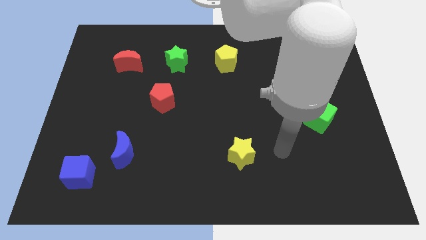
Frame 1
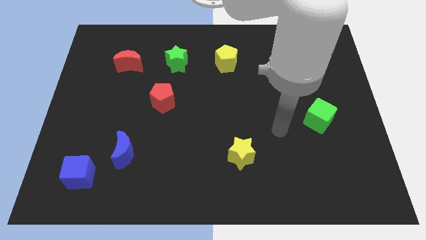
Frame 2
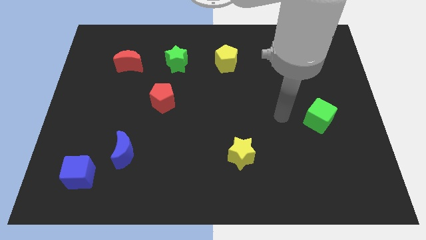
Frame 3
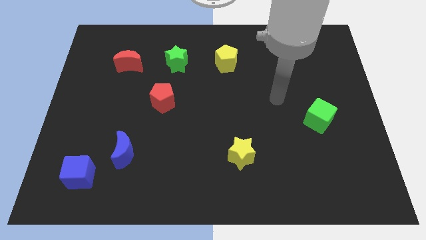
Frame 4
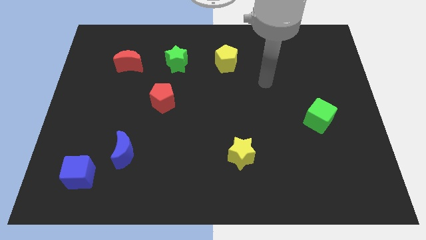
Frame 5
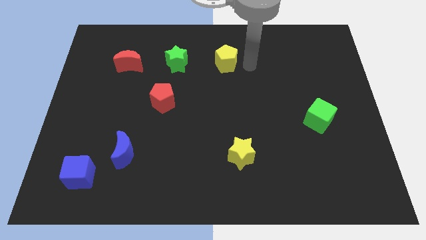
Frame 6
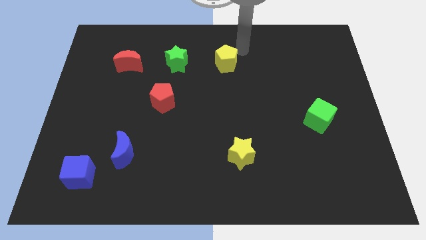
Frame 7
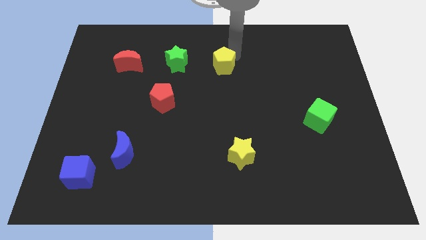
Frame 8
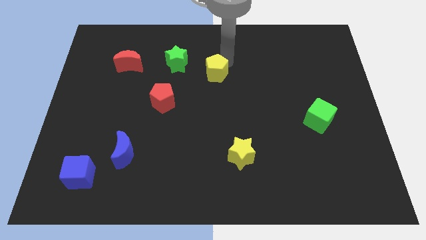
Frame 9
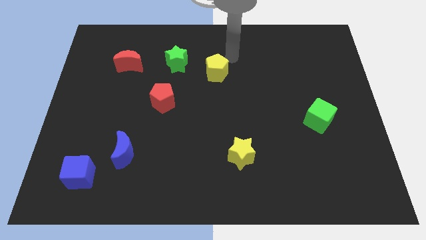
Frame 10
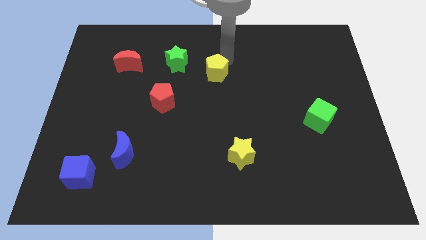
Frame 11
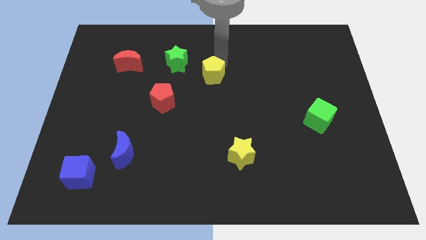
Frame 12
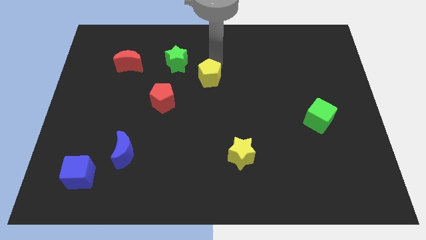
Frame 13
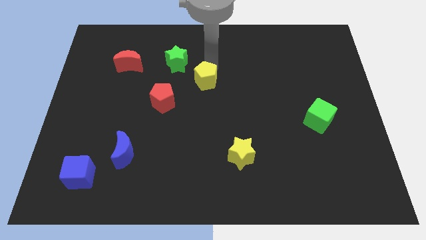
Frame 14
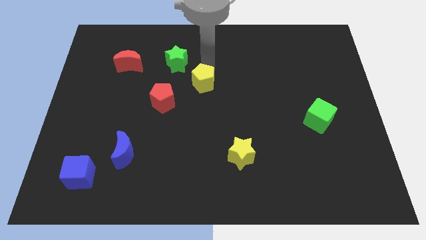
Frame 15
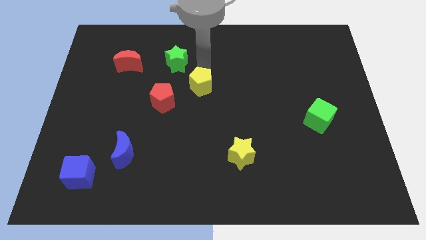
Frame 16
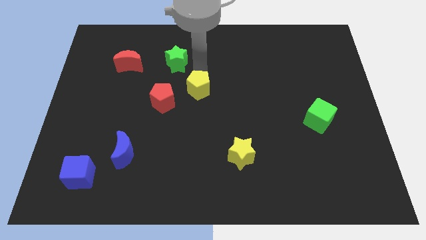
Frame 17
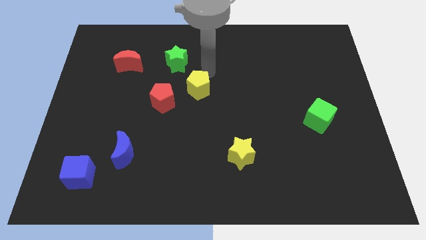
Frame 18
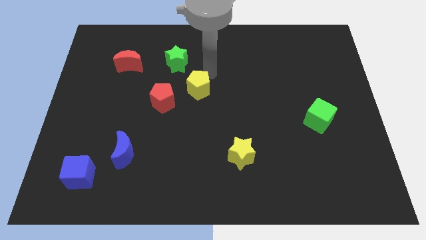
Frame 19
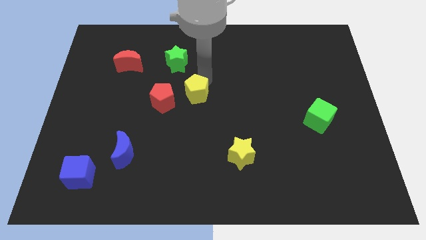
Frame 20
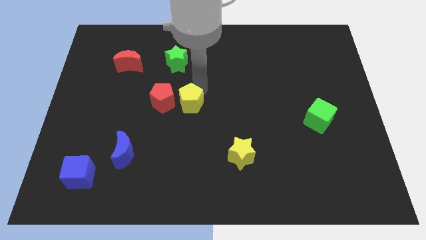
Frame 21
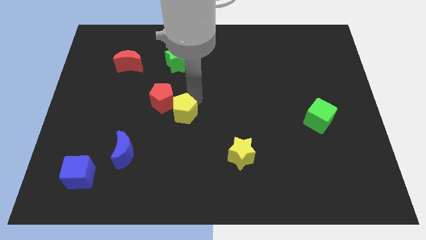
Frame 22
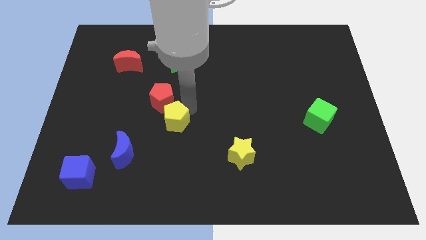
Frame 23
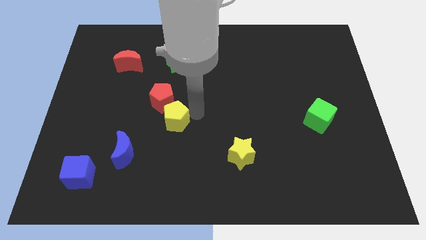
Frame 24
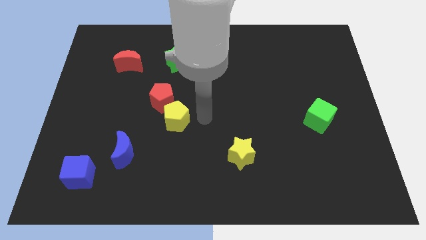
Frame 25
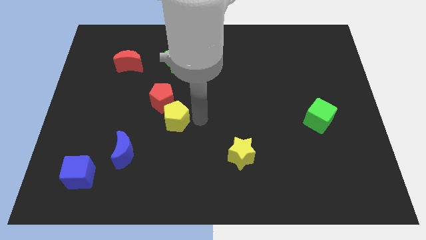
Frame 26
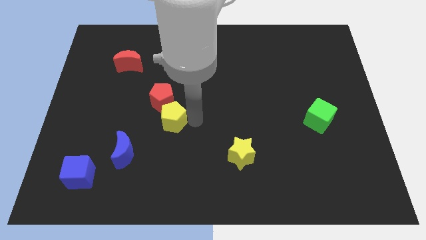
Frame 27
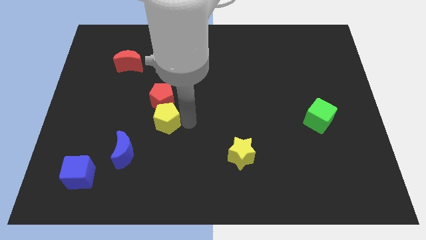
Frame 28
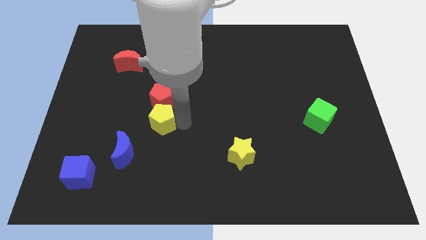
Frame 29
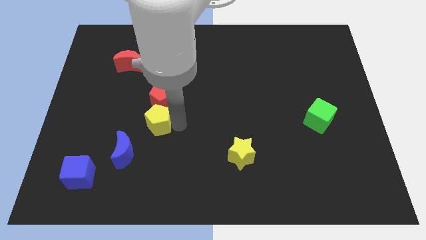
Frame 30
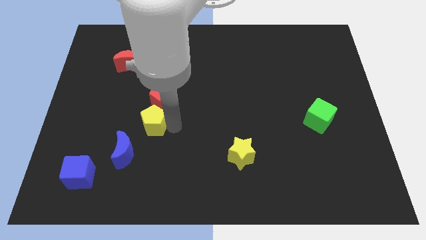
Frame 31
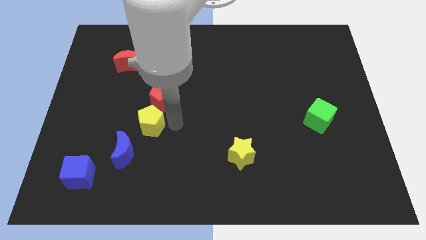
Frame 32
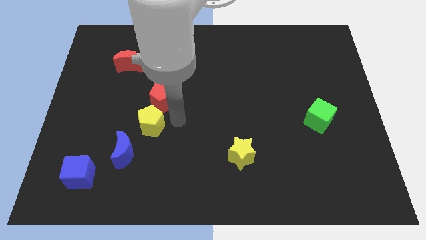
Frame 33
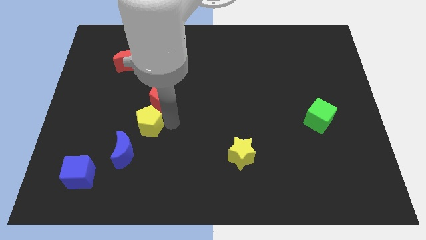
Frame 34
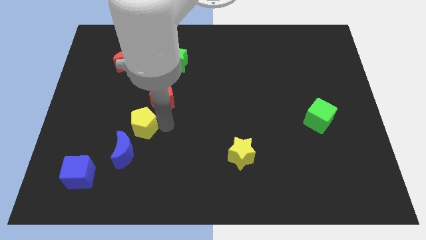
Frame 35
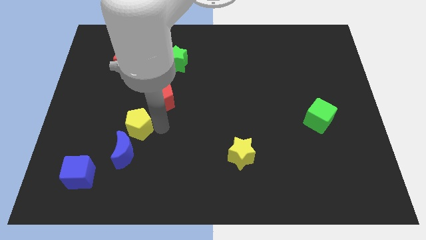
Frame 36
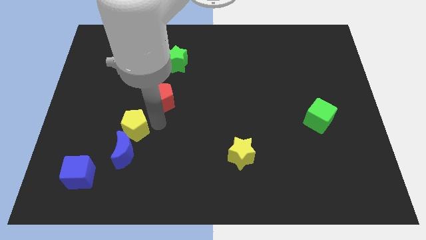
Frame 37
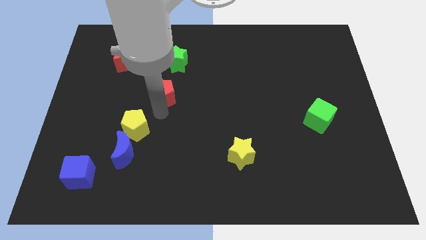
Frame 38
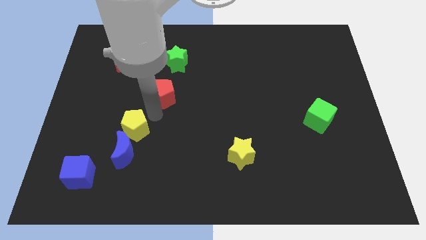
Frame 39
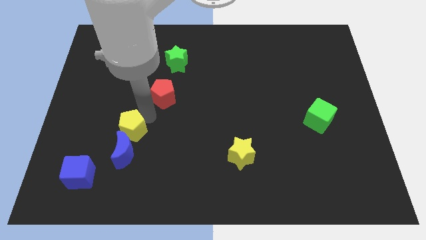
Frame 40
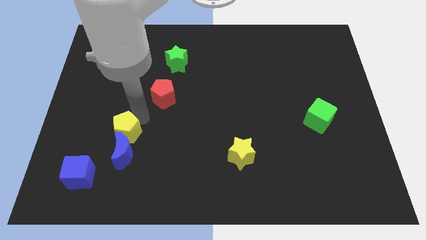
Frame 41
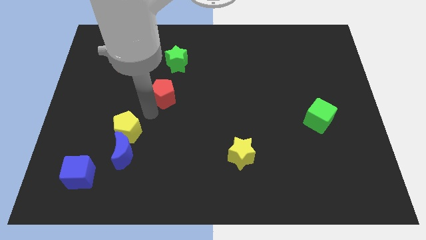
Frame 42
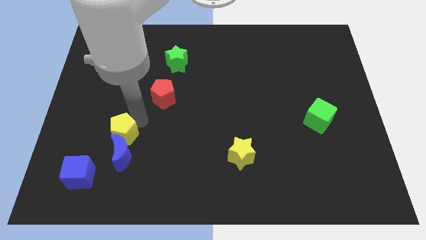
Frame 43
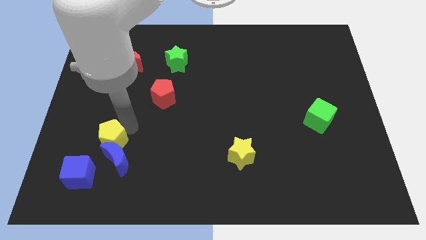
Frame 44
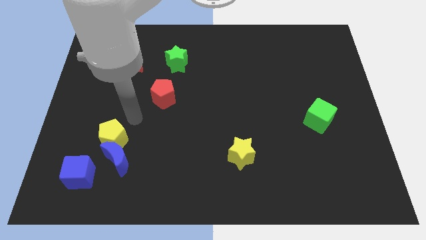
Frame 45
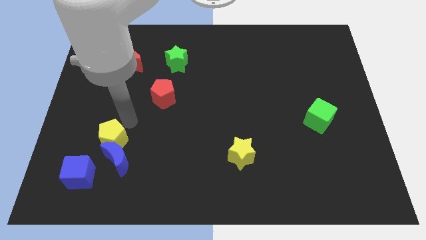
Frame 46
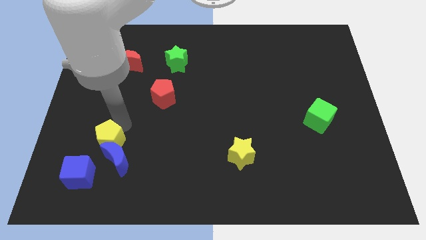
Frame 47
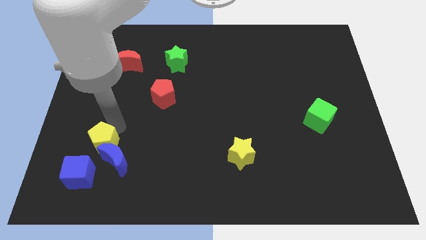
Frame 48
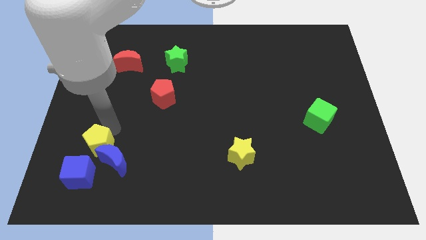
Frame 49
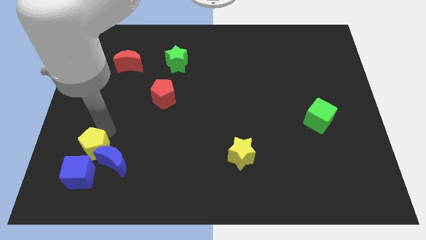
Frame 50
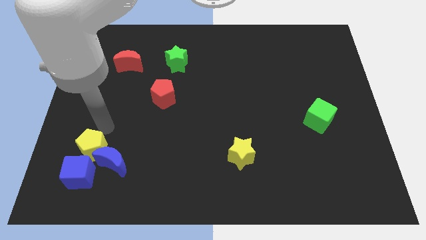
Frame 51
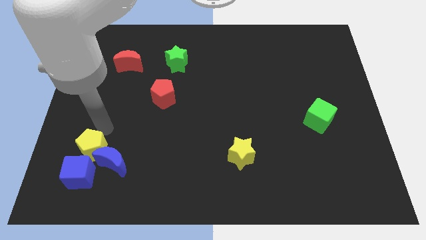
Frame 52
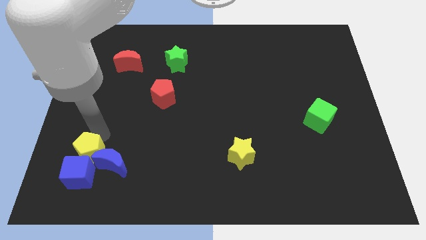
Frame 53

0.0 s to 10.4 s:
push the yellow pentagon next to the blue cube

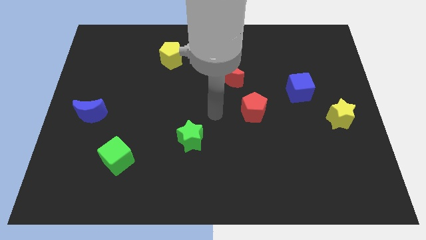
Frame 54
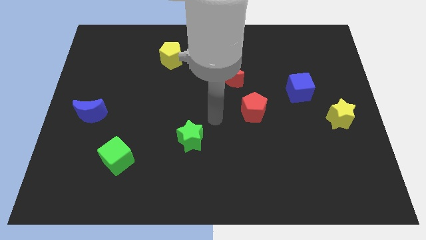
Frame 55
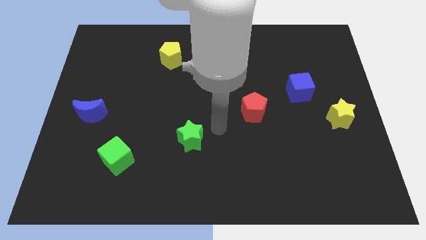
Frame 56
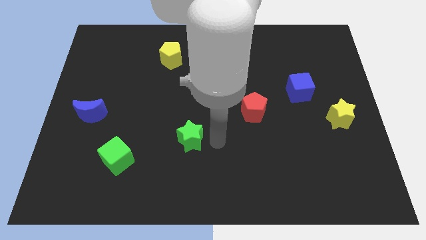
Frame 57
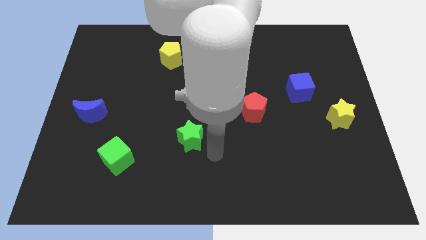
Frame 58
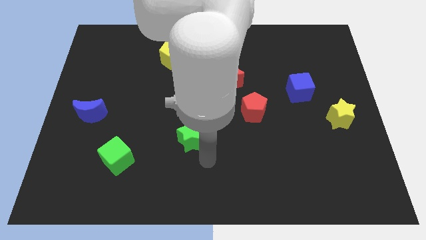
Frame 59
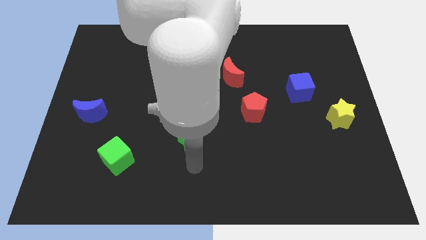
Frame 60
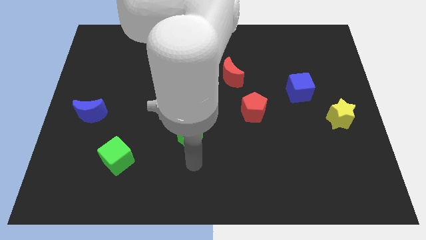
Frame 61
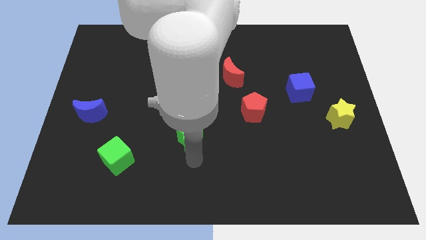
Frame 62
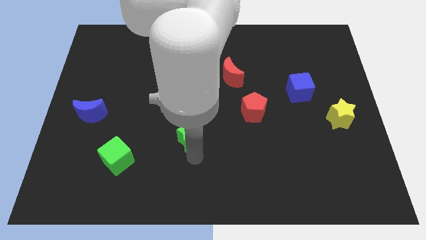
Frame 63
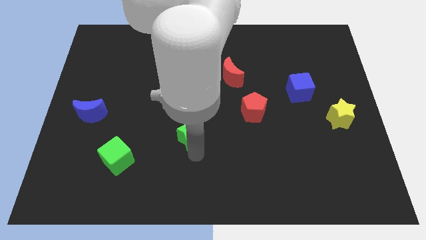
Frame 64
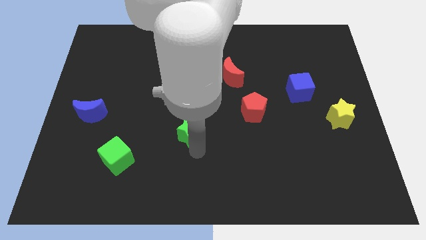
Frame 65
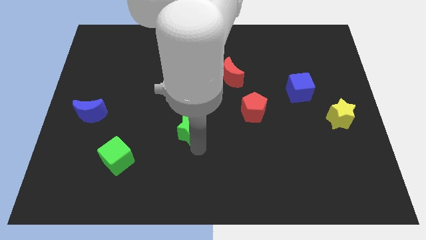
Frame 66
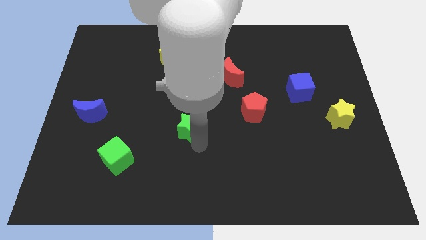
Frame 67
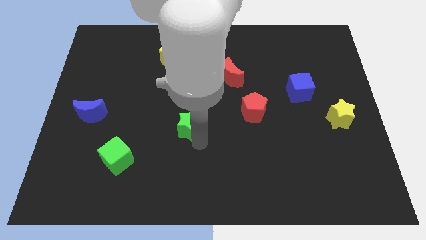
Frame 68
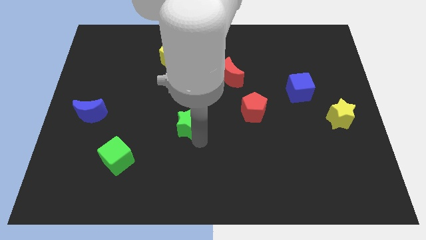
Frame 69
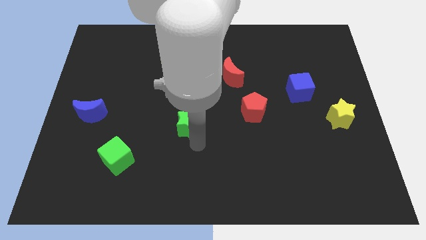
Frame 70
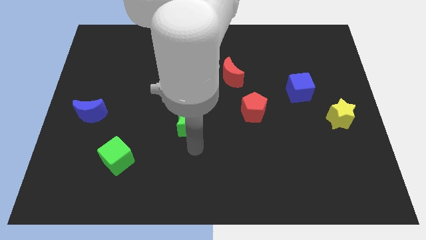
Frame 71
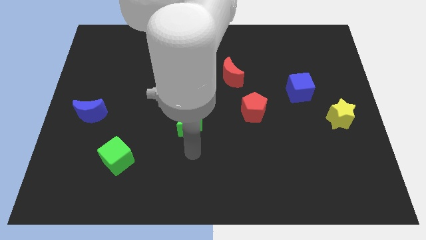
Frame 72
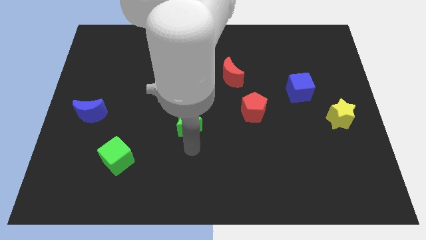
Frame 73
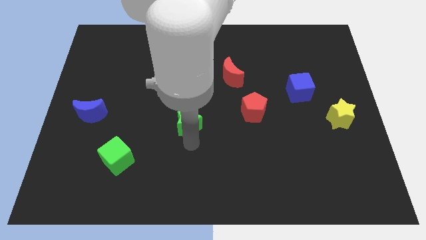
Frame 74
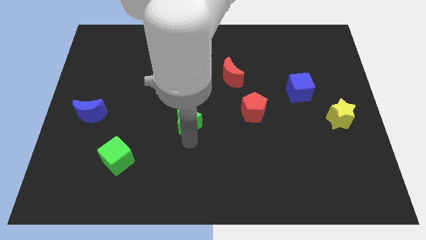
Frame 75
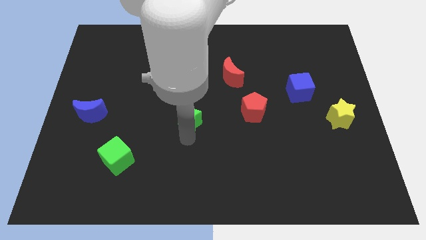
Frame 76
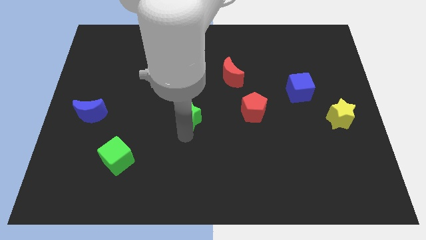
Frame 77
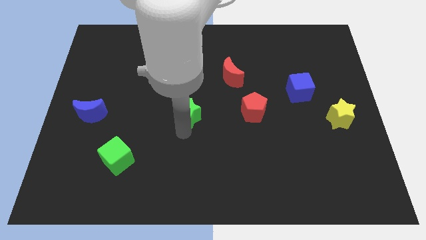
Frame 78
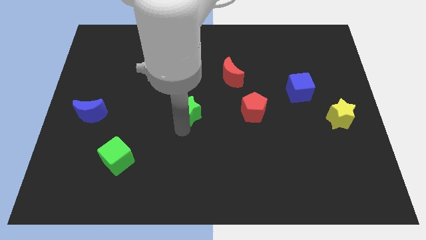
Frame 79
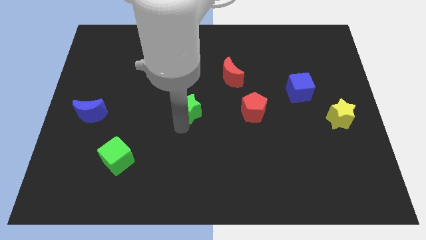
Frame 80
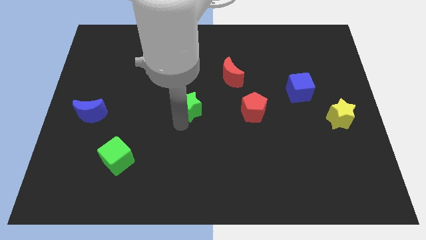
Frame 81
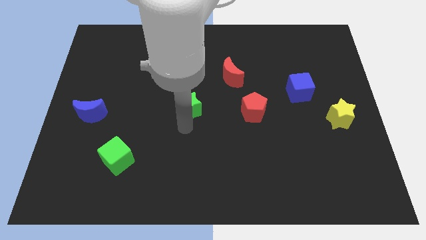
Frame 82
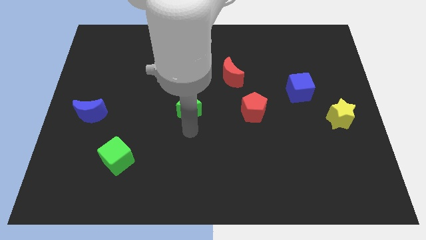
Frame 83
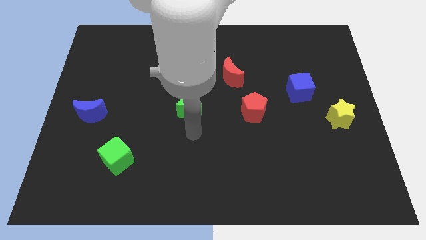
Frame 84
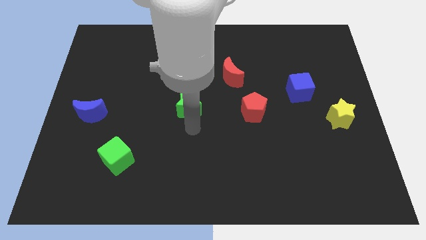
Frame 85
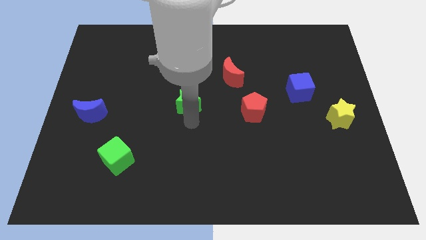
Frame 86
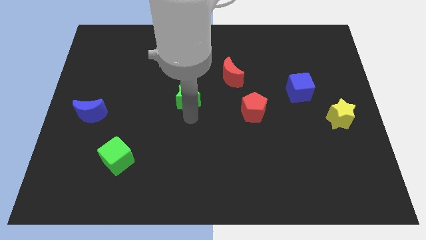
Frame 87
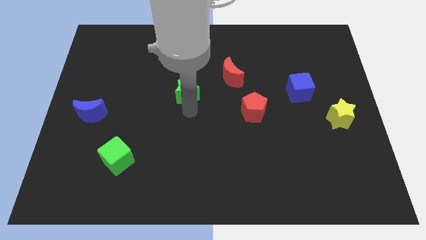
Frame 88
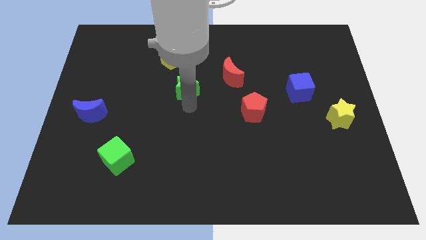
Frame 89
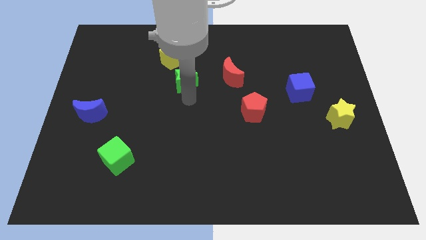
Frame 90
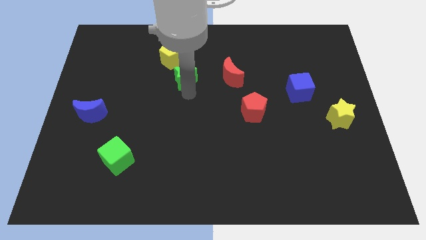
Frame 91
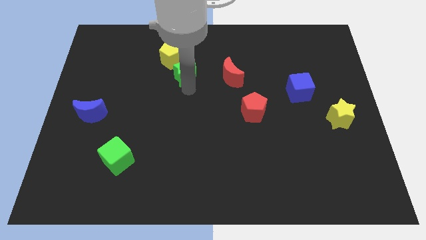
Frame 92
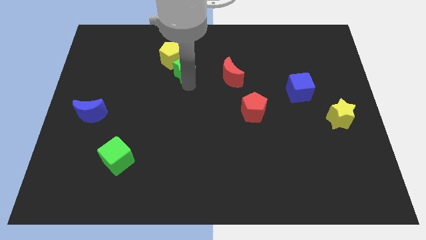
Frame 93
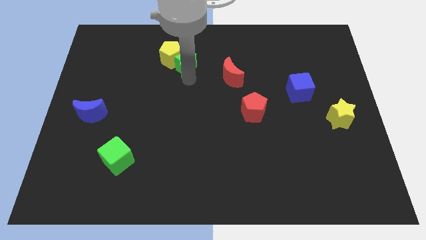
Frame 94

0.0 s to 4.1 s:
move the green star close to the yellow pentagon
